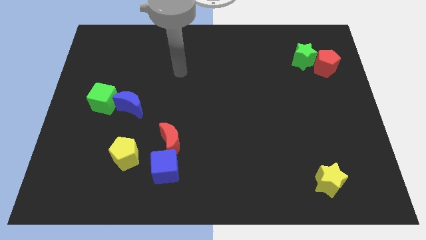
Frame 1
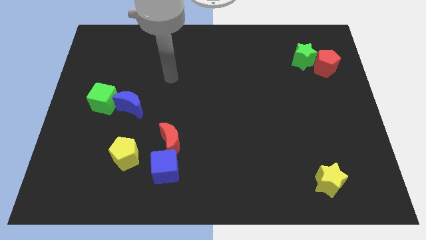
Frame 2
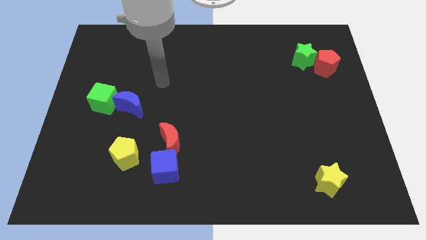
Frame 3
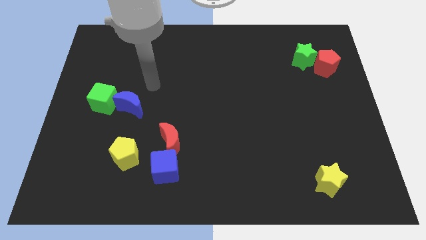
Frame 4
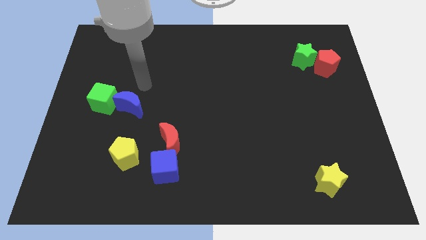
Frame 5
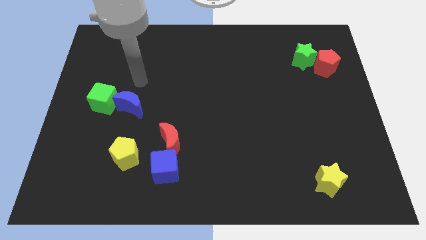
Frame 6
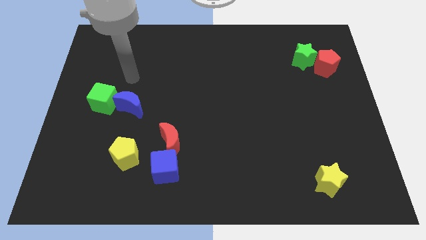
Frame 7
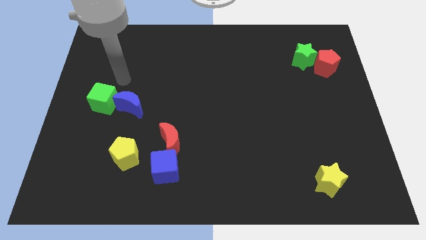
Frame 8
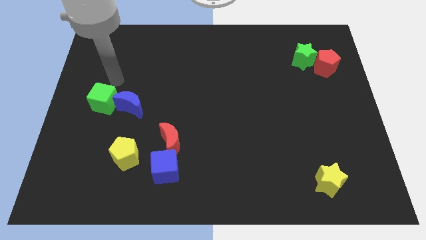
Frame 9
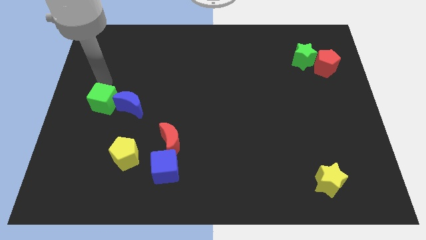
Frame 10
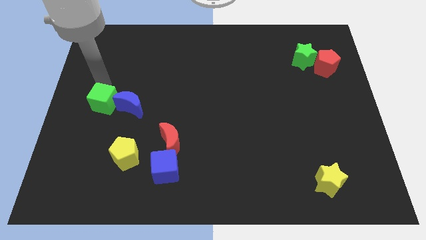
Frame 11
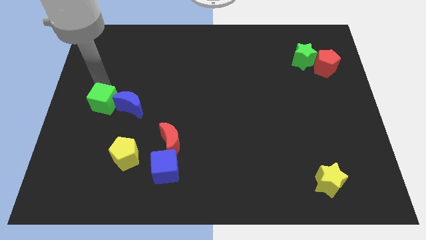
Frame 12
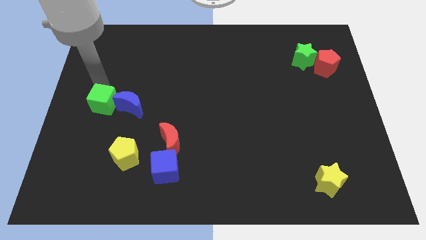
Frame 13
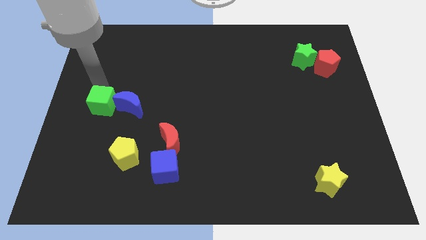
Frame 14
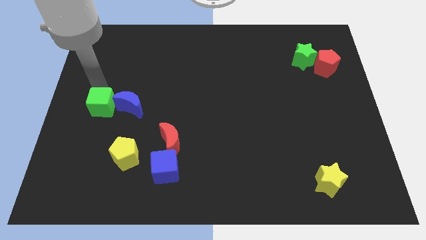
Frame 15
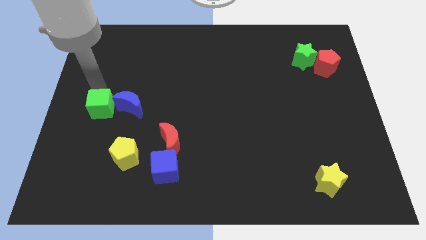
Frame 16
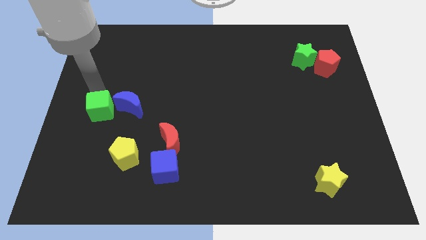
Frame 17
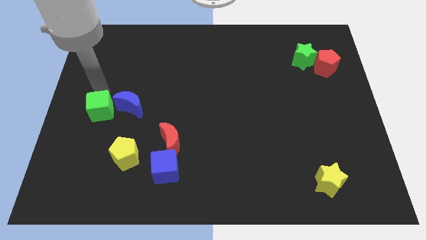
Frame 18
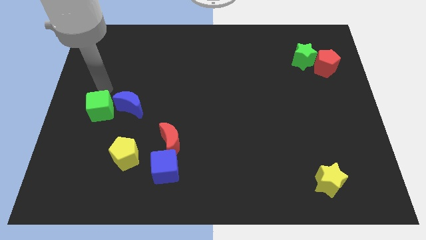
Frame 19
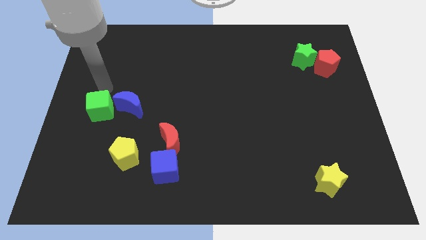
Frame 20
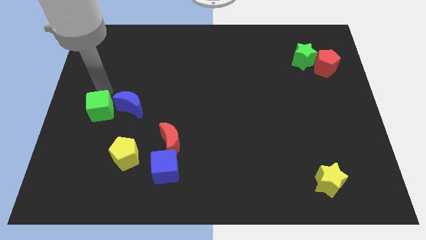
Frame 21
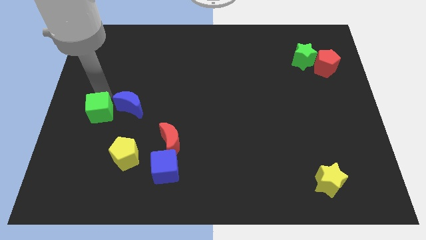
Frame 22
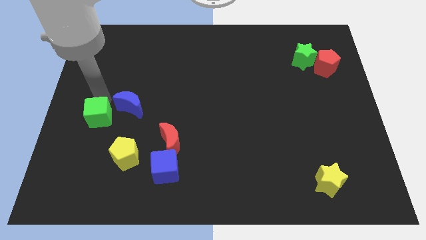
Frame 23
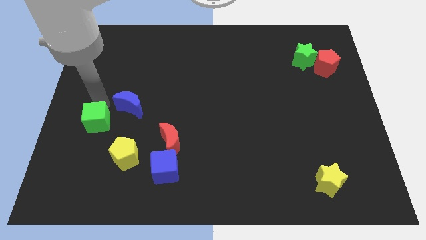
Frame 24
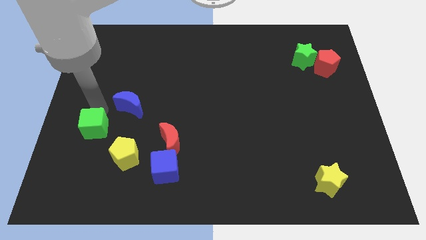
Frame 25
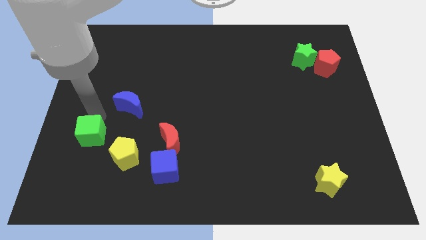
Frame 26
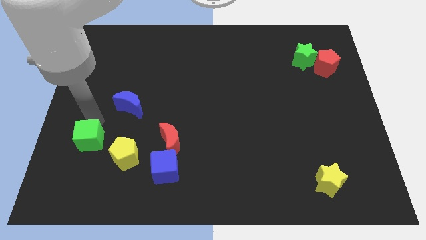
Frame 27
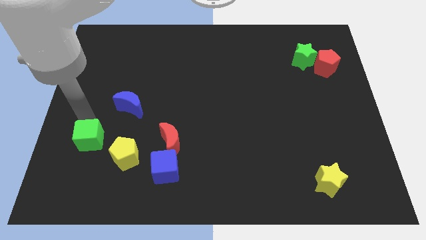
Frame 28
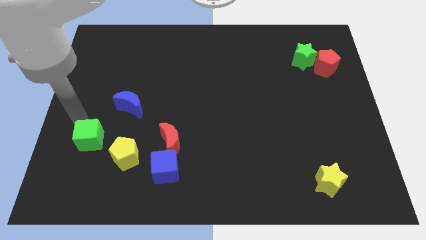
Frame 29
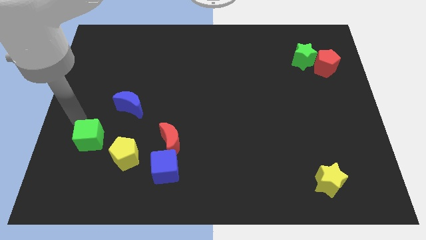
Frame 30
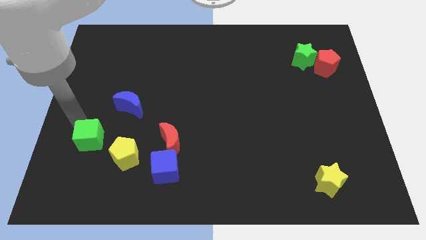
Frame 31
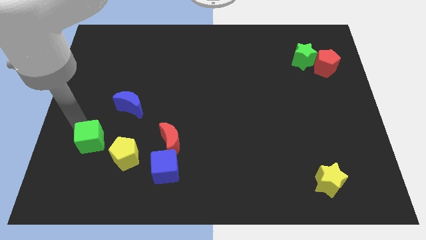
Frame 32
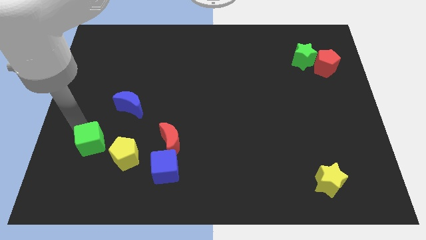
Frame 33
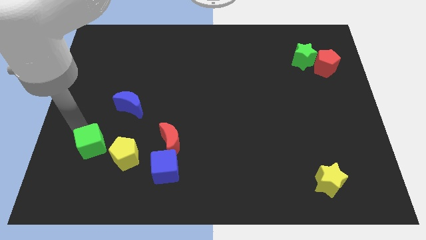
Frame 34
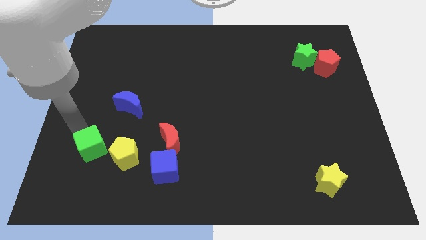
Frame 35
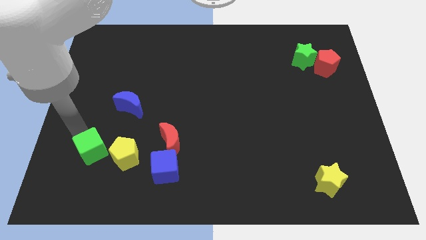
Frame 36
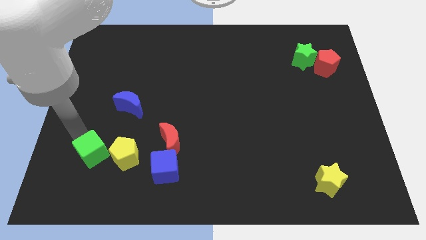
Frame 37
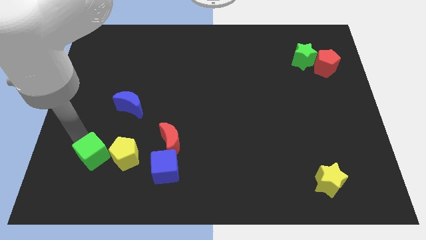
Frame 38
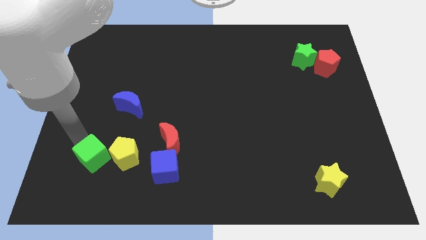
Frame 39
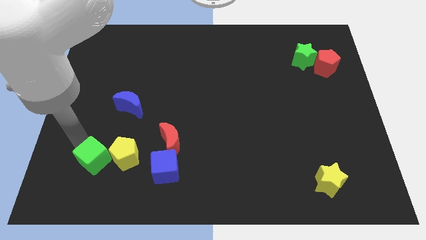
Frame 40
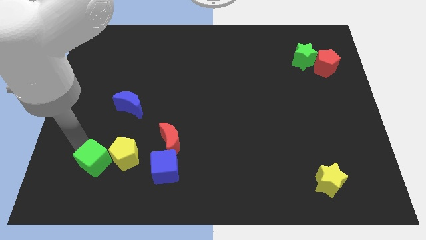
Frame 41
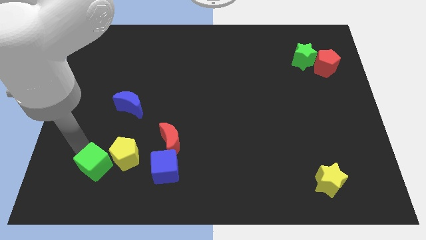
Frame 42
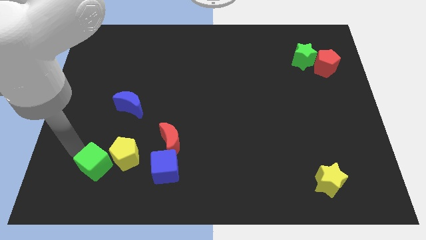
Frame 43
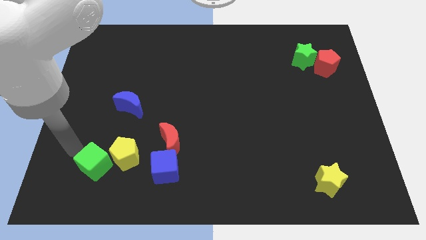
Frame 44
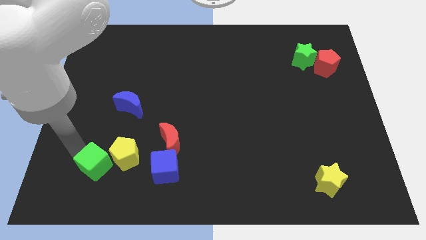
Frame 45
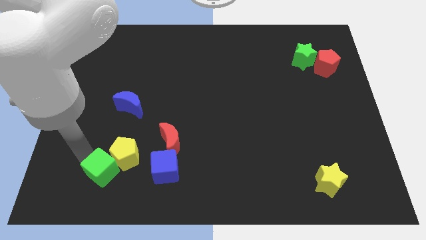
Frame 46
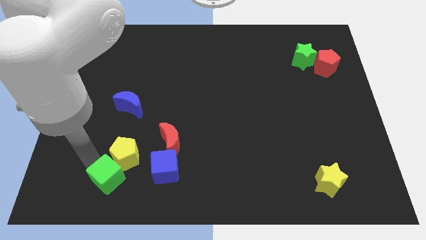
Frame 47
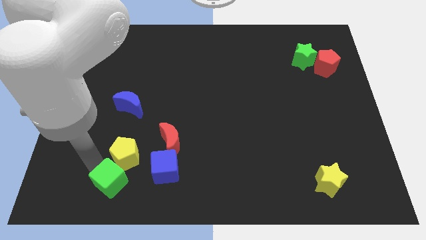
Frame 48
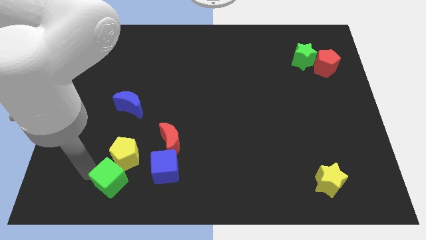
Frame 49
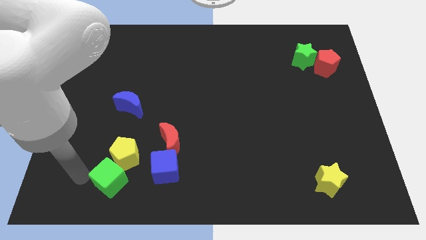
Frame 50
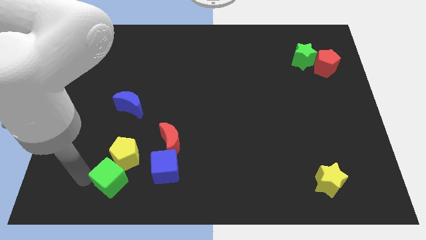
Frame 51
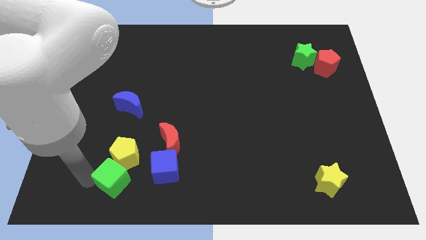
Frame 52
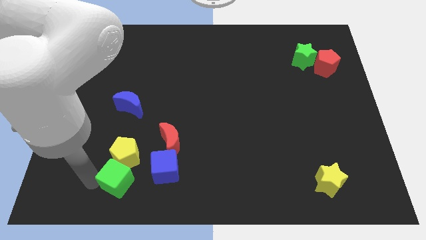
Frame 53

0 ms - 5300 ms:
move the green cube diagonally down and to the right of the yellow pentagon

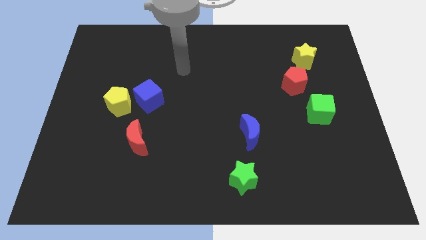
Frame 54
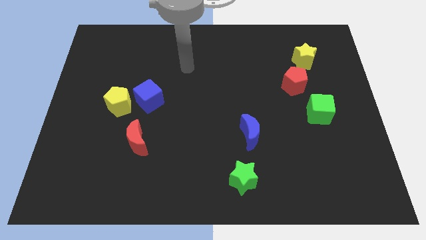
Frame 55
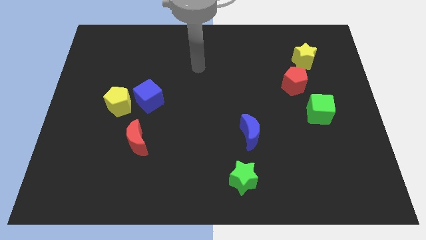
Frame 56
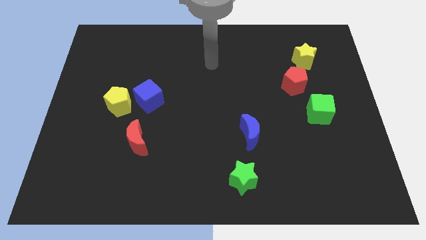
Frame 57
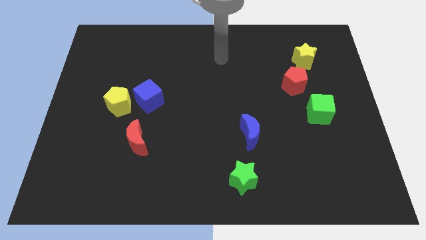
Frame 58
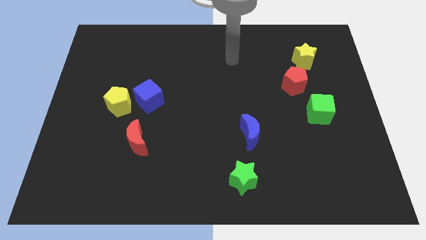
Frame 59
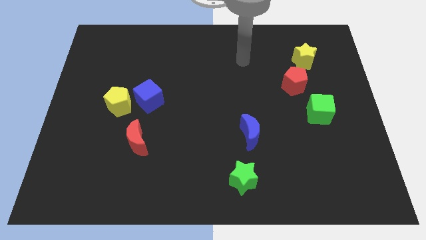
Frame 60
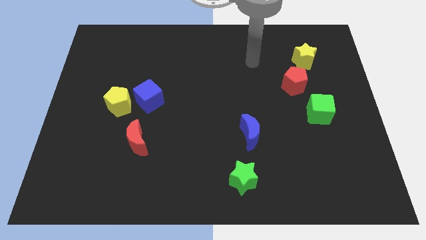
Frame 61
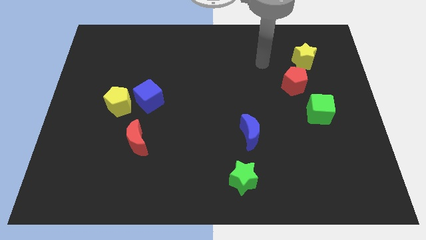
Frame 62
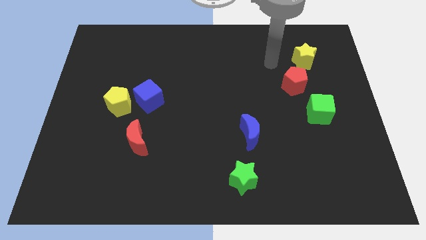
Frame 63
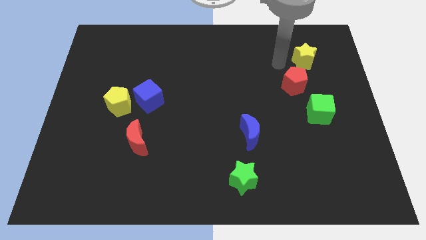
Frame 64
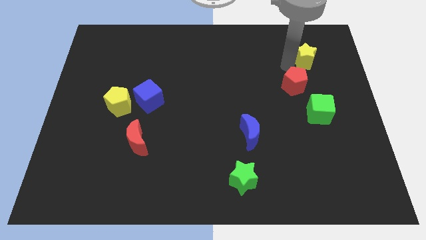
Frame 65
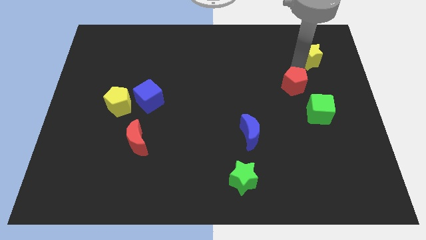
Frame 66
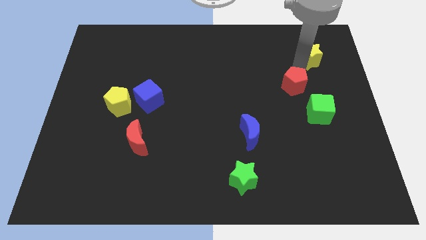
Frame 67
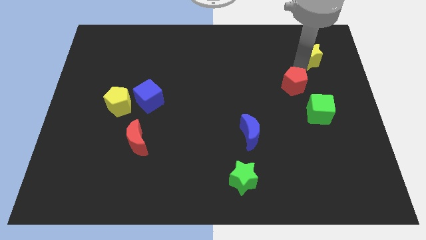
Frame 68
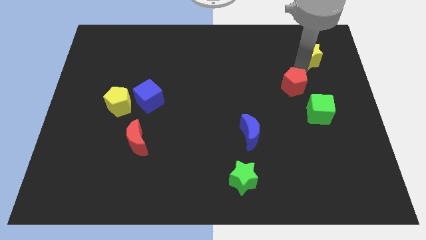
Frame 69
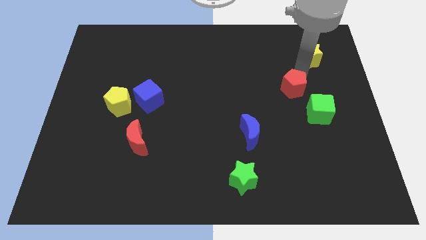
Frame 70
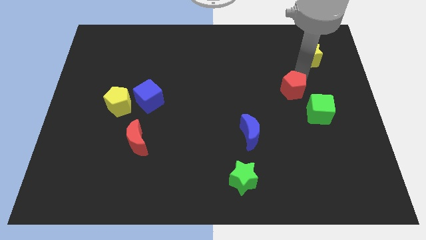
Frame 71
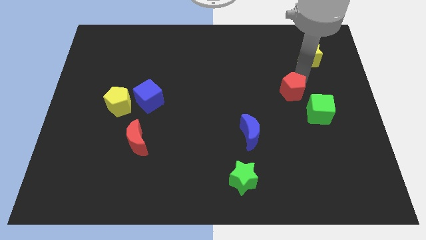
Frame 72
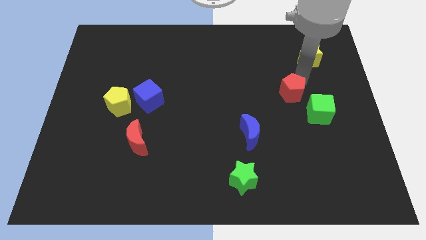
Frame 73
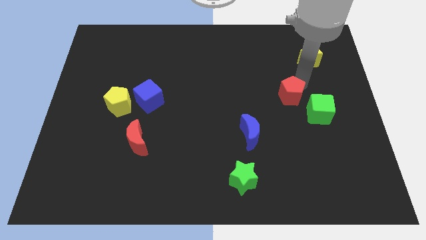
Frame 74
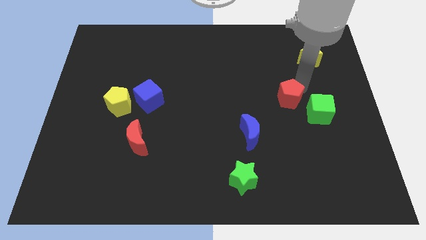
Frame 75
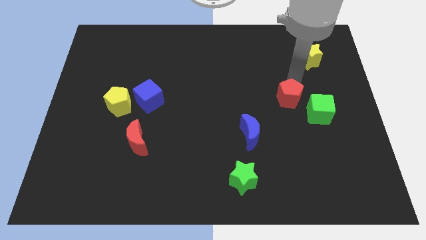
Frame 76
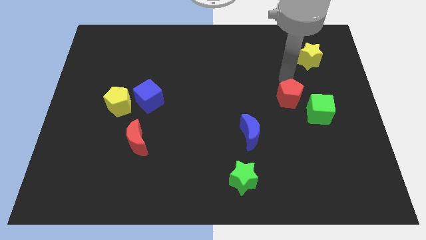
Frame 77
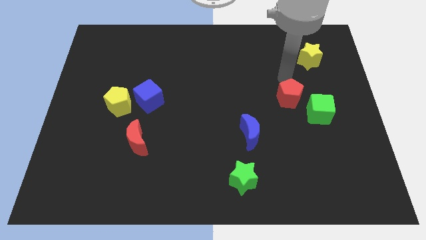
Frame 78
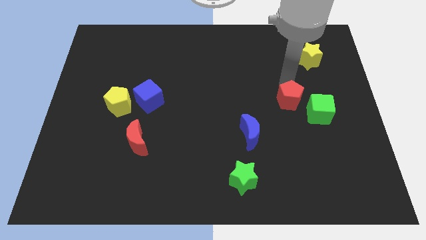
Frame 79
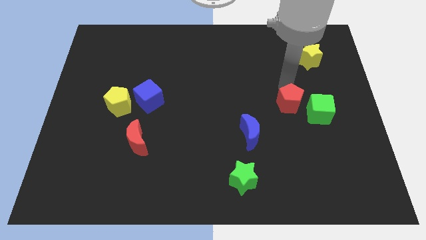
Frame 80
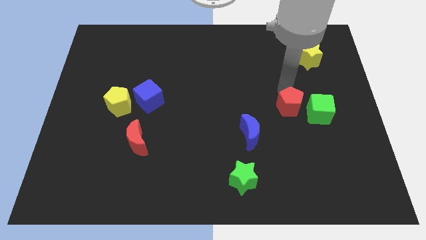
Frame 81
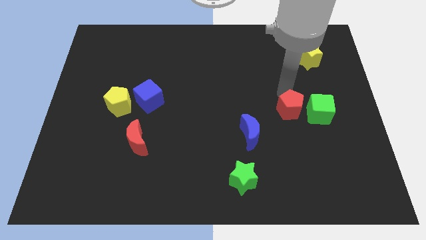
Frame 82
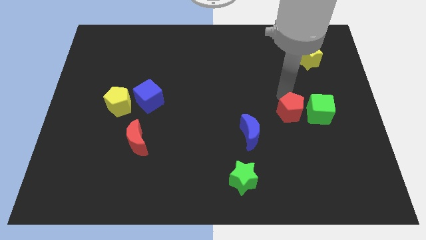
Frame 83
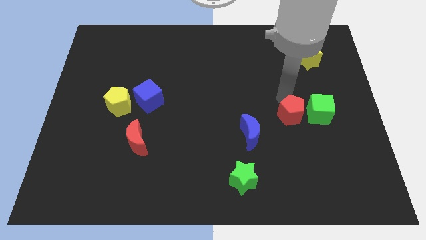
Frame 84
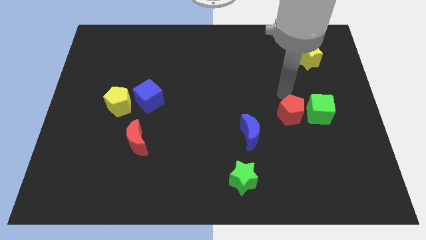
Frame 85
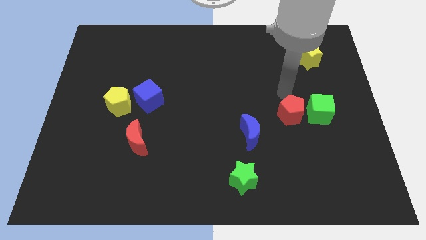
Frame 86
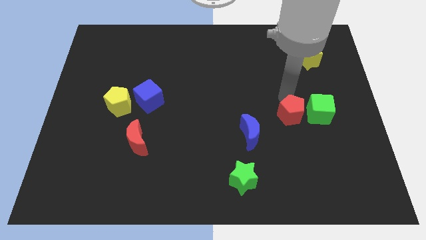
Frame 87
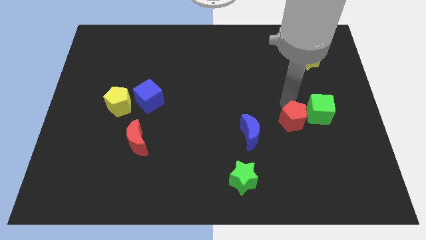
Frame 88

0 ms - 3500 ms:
slide the red pentagon just right of the blue moon
